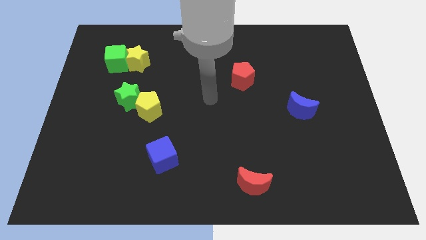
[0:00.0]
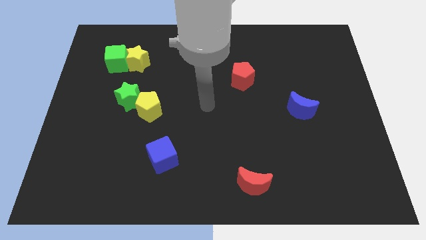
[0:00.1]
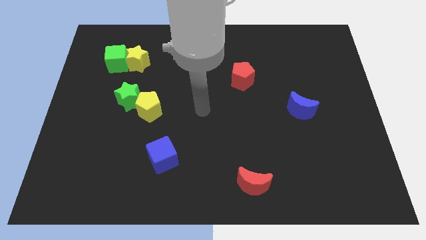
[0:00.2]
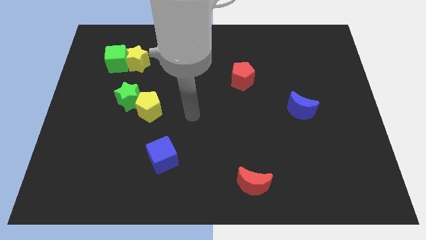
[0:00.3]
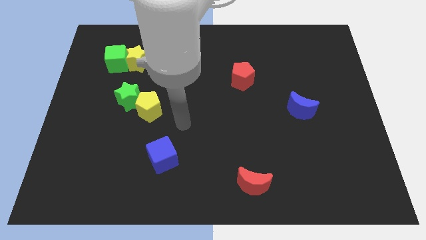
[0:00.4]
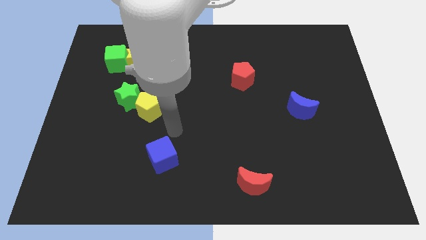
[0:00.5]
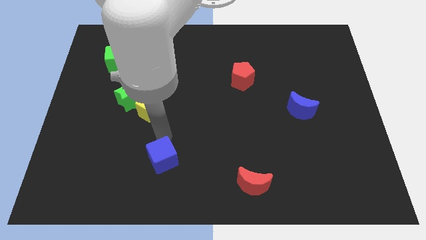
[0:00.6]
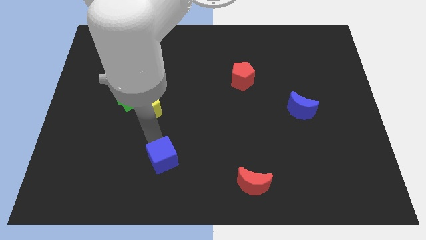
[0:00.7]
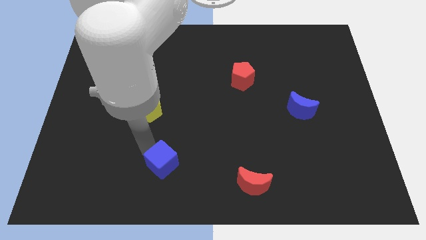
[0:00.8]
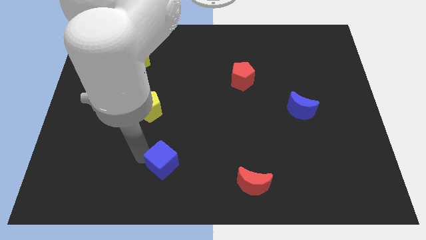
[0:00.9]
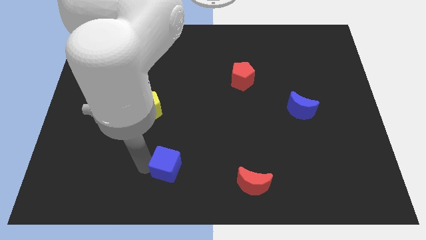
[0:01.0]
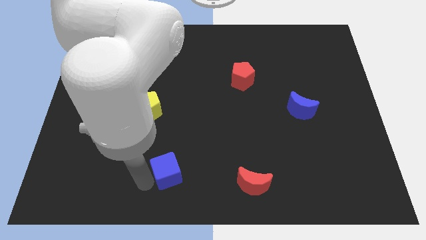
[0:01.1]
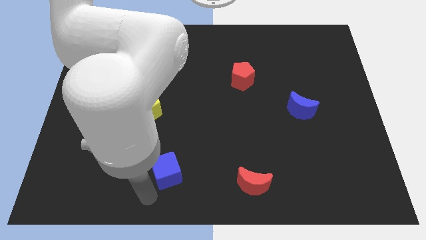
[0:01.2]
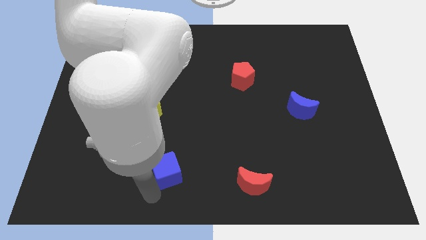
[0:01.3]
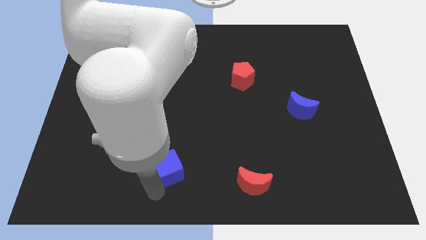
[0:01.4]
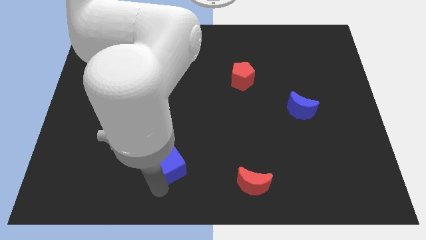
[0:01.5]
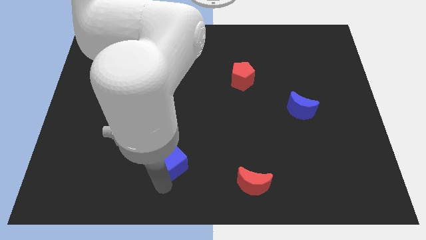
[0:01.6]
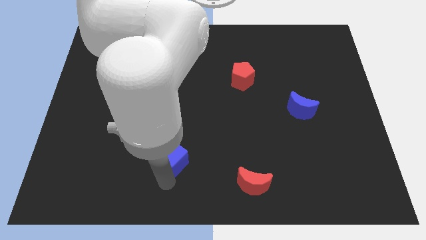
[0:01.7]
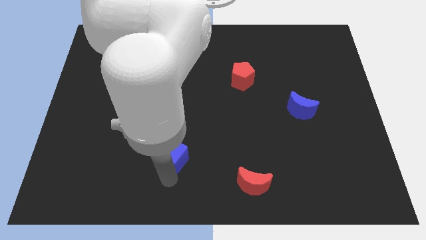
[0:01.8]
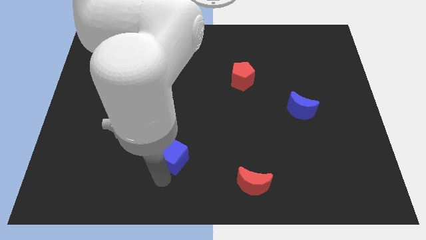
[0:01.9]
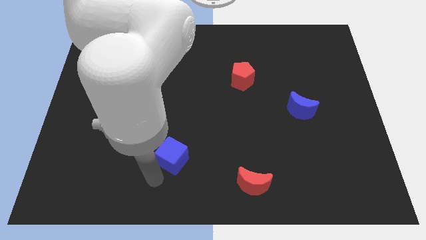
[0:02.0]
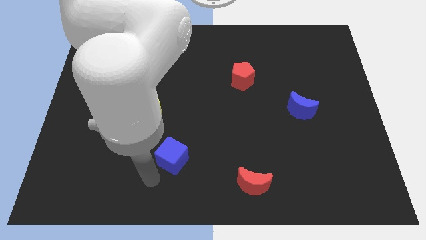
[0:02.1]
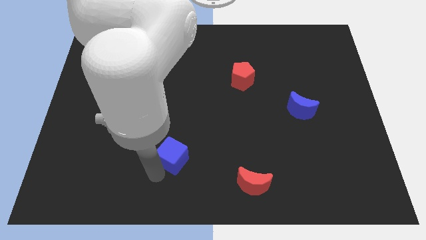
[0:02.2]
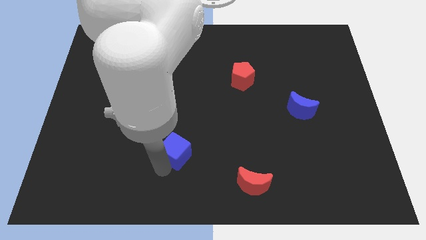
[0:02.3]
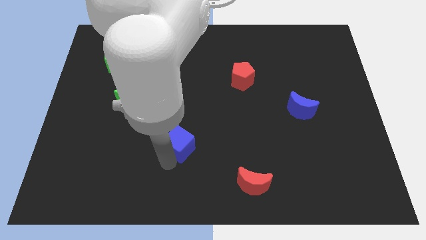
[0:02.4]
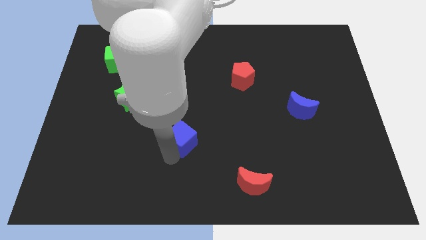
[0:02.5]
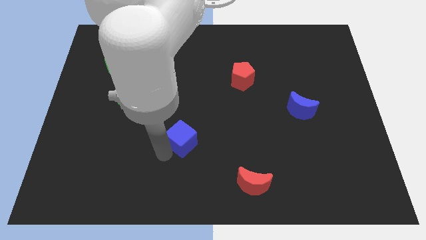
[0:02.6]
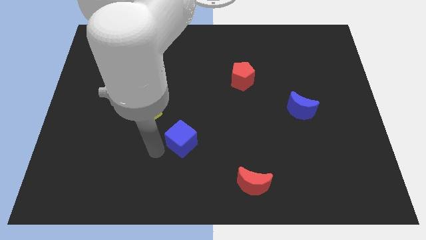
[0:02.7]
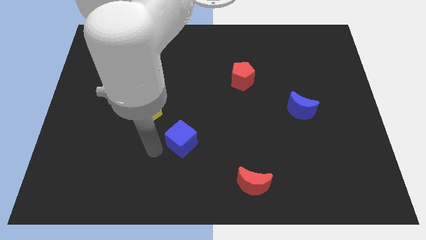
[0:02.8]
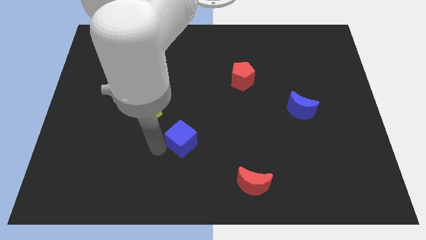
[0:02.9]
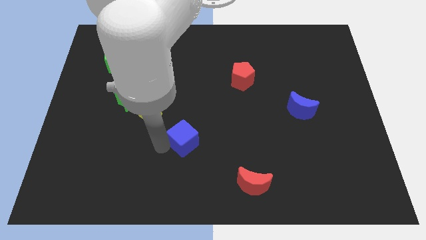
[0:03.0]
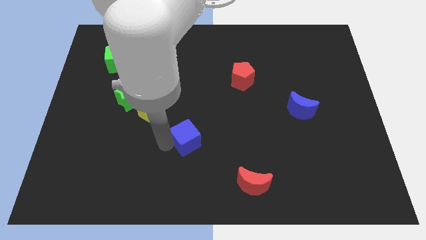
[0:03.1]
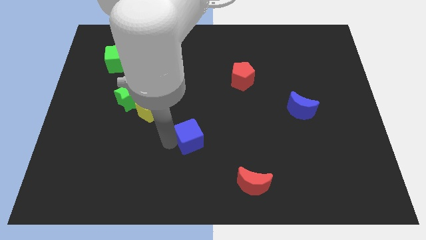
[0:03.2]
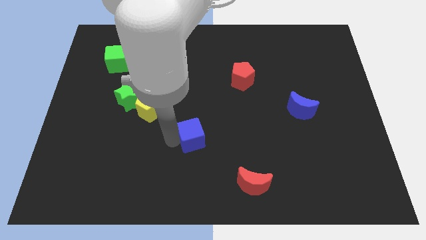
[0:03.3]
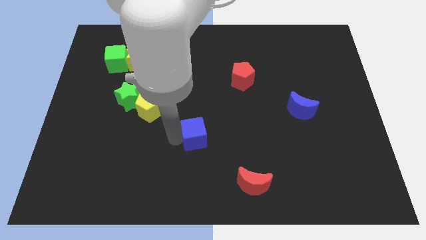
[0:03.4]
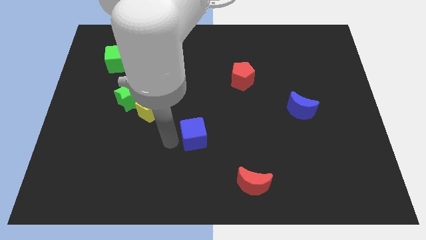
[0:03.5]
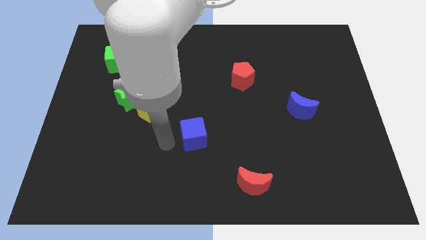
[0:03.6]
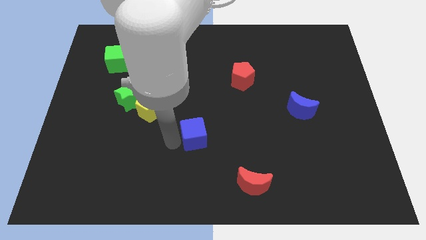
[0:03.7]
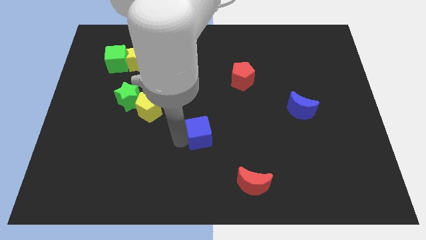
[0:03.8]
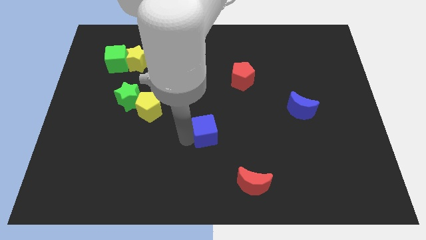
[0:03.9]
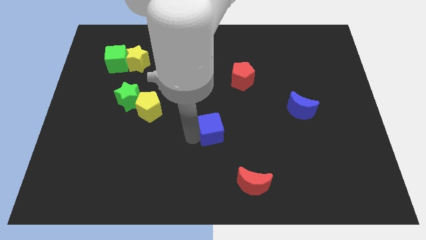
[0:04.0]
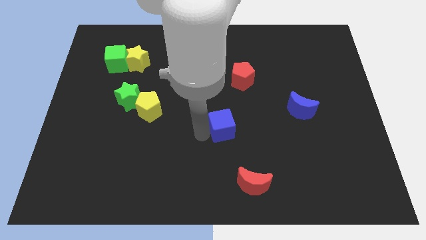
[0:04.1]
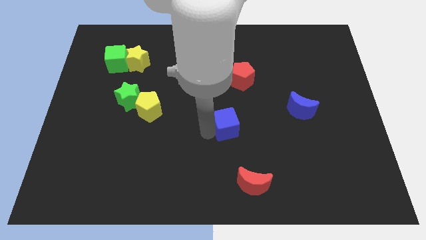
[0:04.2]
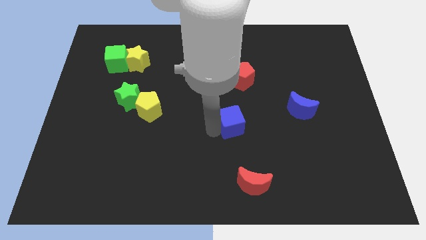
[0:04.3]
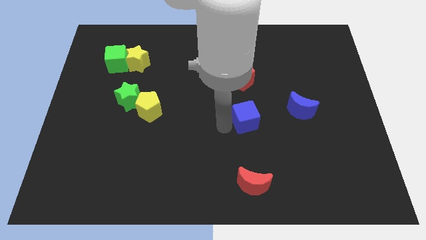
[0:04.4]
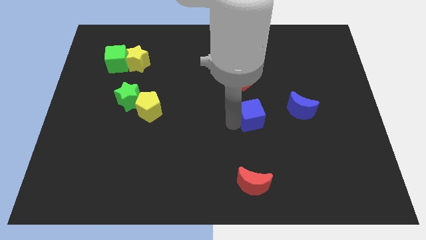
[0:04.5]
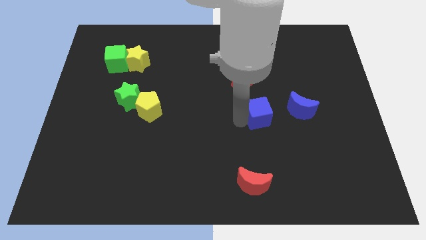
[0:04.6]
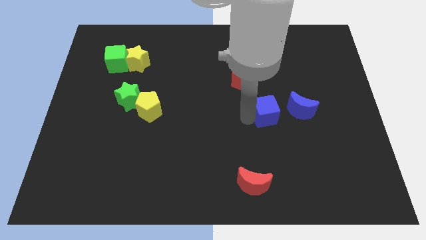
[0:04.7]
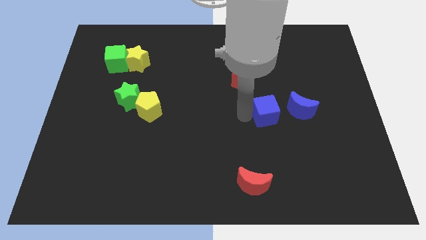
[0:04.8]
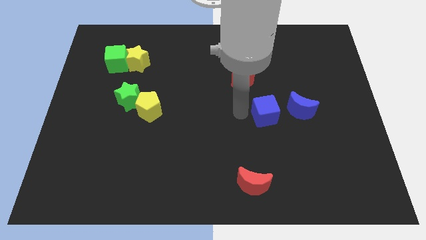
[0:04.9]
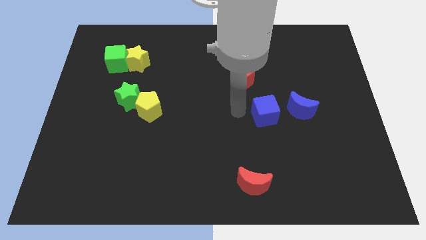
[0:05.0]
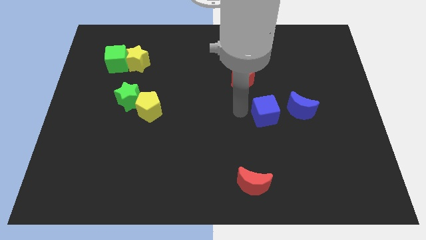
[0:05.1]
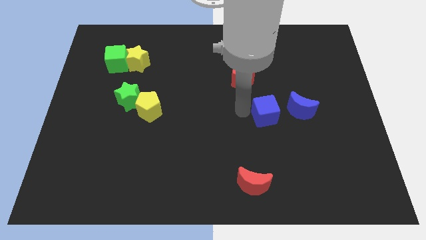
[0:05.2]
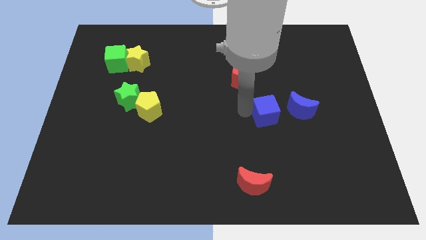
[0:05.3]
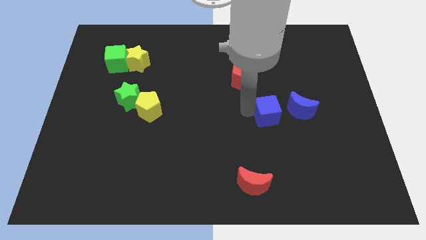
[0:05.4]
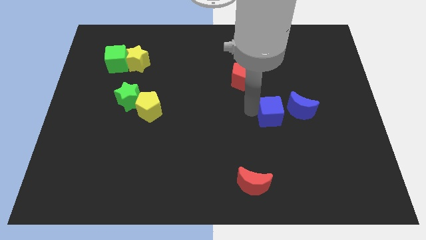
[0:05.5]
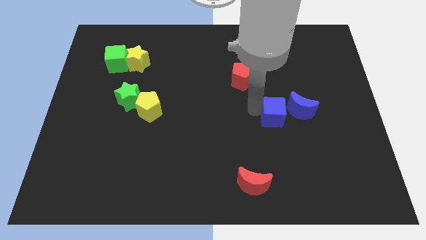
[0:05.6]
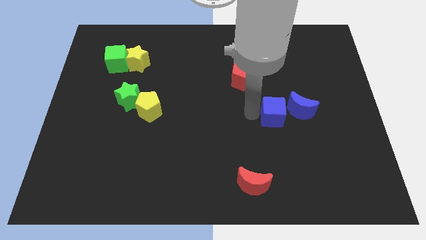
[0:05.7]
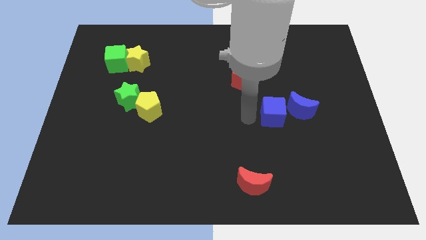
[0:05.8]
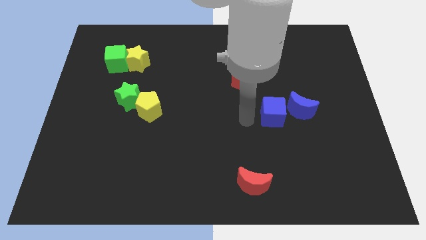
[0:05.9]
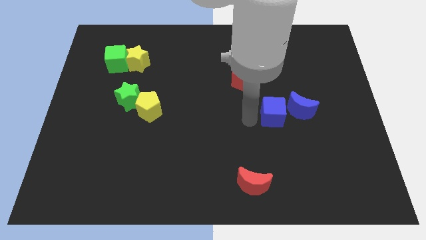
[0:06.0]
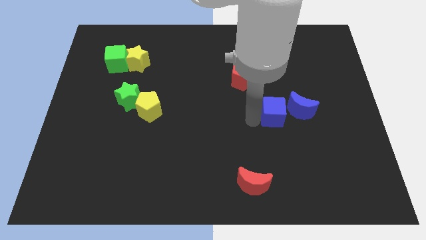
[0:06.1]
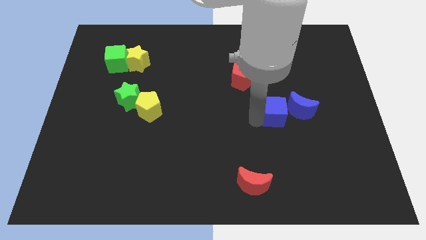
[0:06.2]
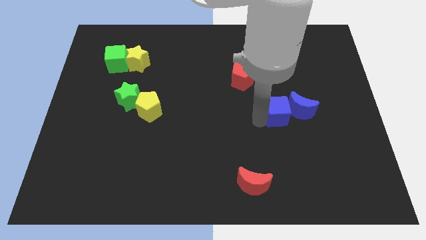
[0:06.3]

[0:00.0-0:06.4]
put the blue cube towards the blue moon

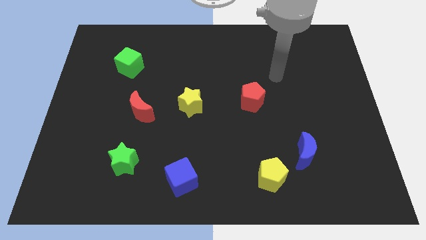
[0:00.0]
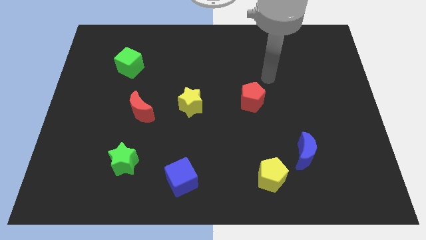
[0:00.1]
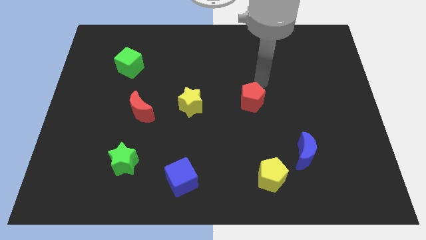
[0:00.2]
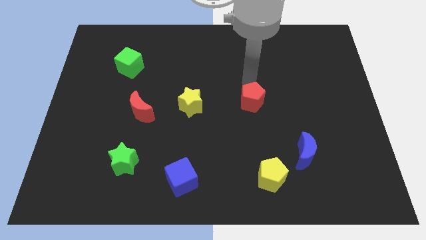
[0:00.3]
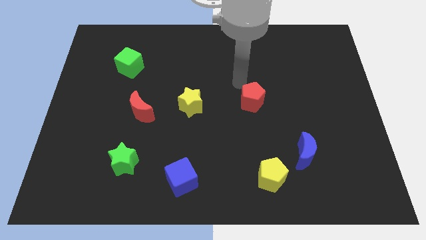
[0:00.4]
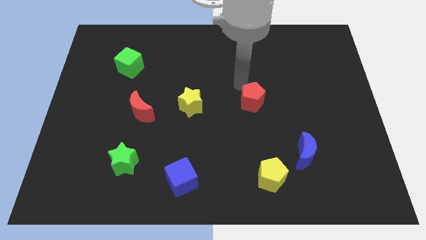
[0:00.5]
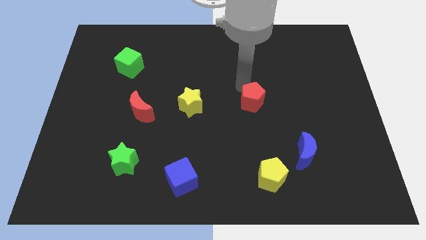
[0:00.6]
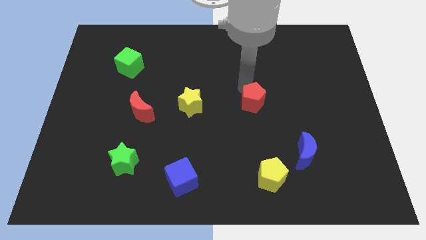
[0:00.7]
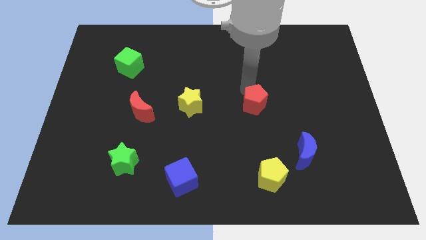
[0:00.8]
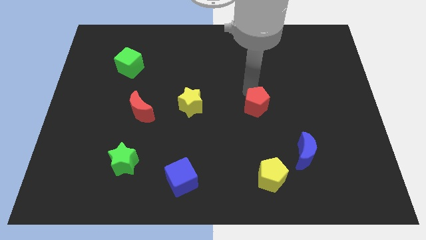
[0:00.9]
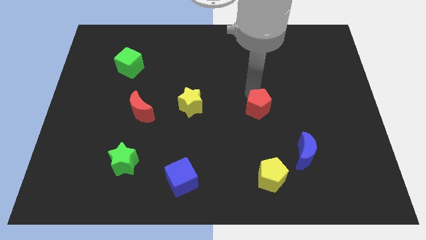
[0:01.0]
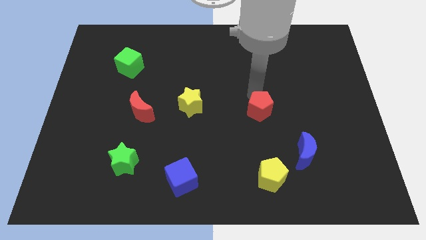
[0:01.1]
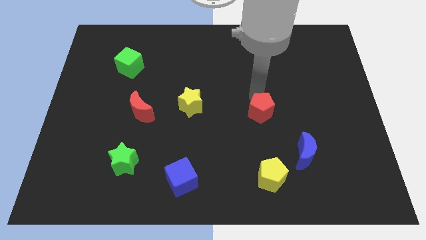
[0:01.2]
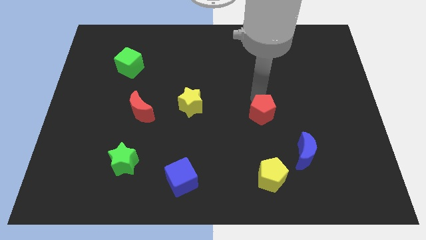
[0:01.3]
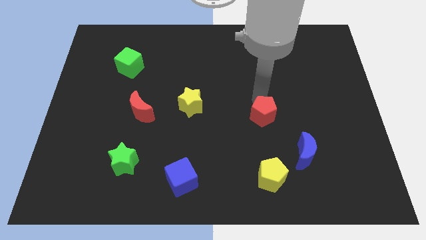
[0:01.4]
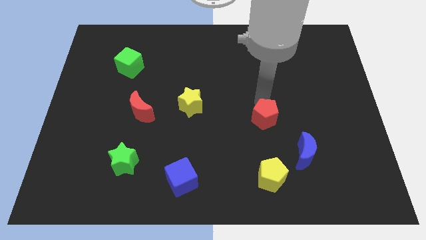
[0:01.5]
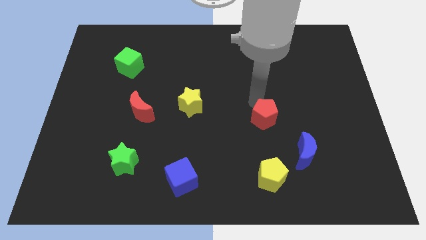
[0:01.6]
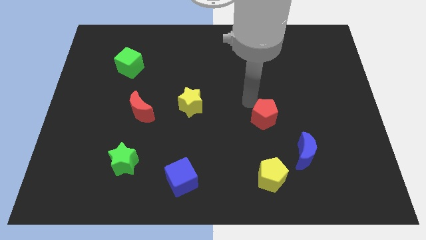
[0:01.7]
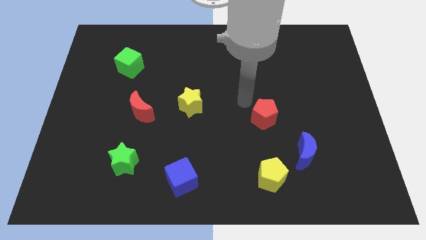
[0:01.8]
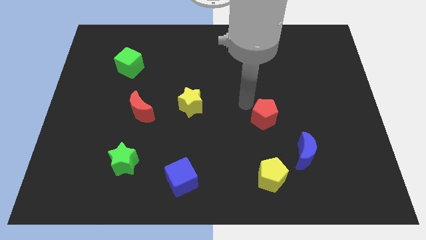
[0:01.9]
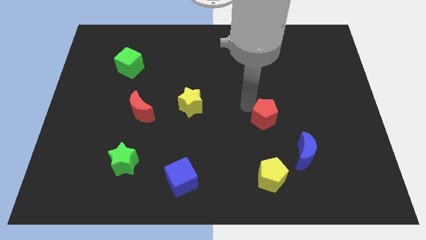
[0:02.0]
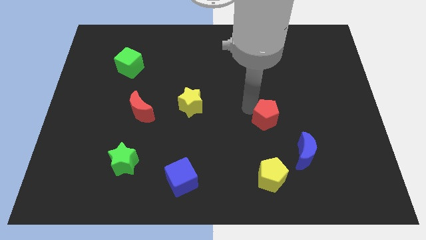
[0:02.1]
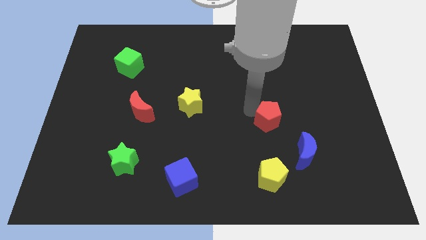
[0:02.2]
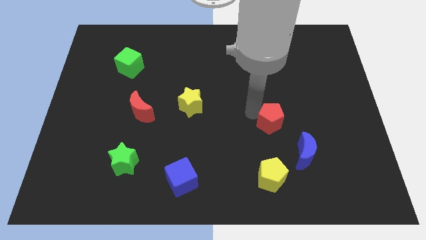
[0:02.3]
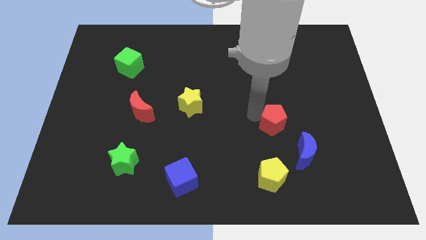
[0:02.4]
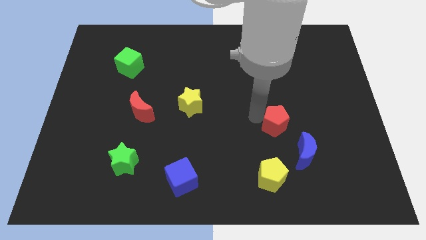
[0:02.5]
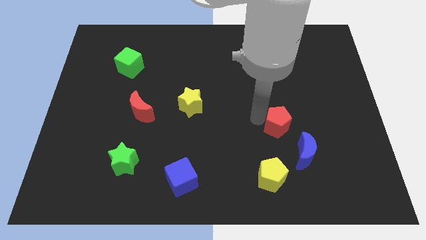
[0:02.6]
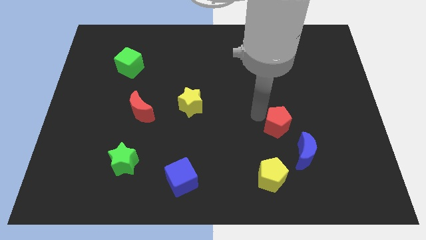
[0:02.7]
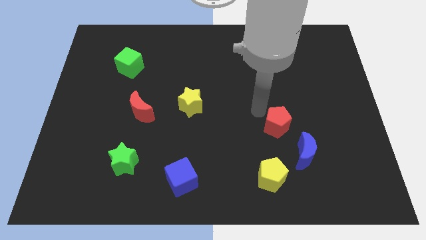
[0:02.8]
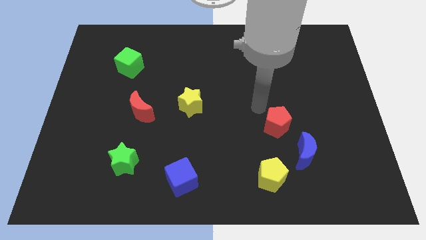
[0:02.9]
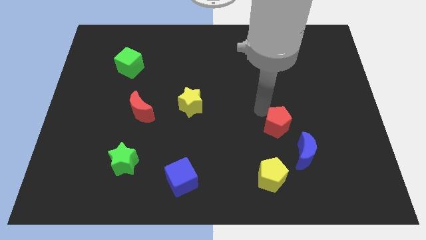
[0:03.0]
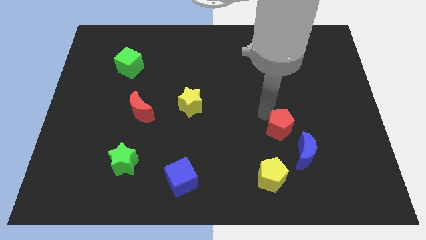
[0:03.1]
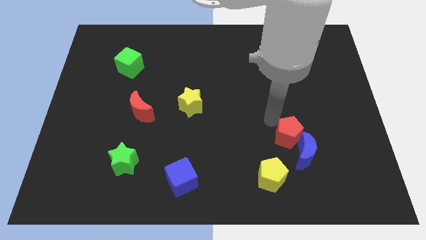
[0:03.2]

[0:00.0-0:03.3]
slide the red pentagon next to the blue moon
